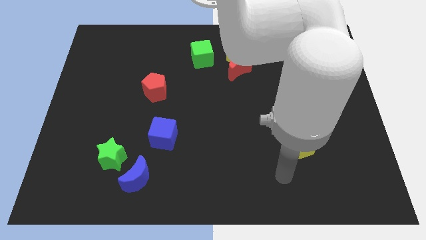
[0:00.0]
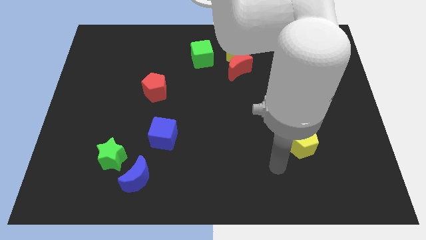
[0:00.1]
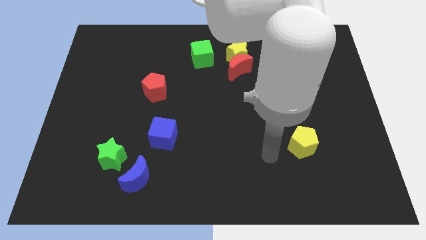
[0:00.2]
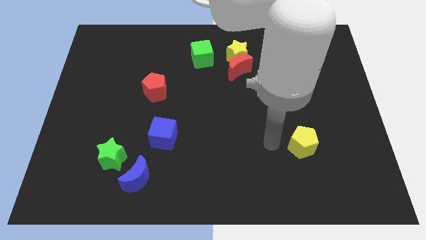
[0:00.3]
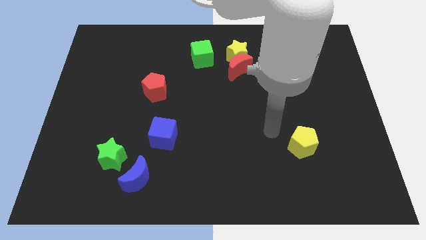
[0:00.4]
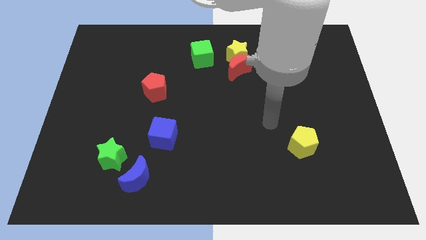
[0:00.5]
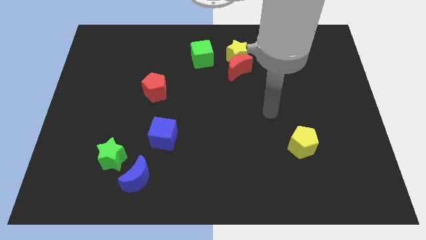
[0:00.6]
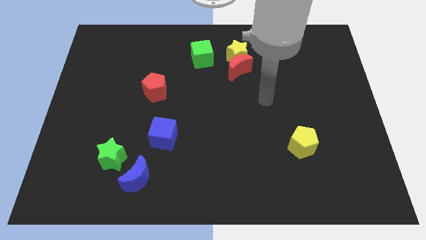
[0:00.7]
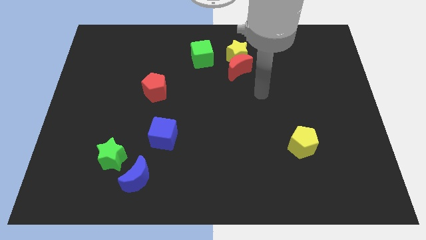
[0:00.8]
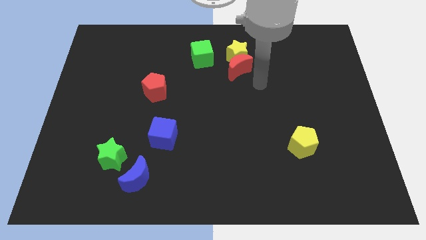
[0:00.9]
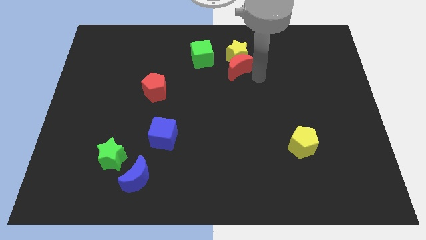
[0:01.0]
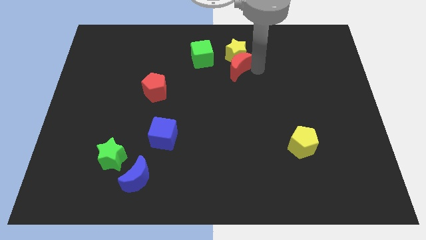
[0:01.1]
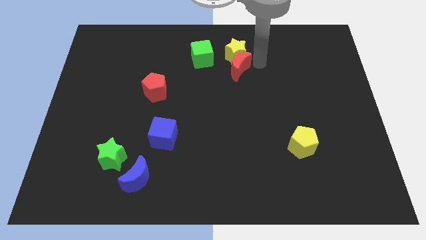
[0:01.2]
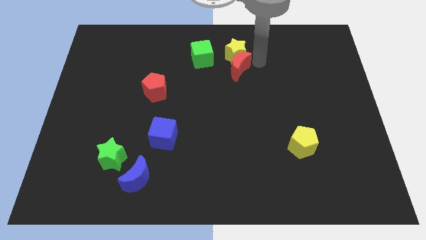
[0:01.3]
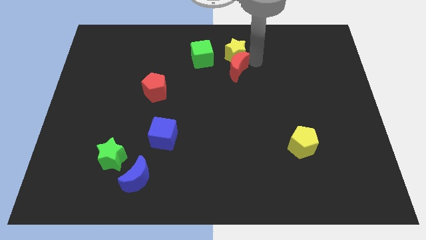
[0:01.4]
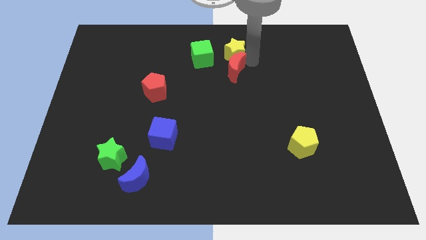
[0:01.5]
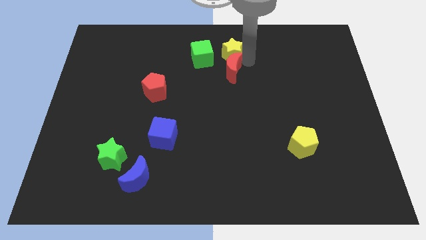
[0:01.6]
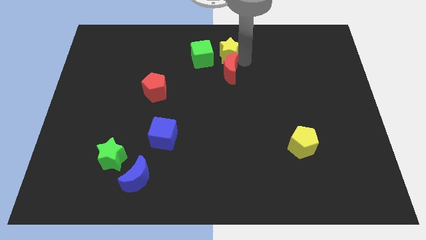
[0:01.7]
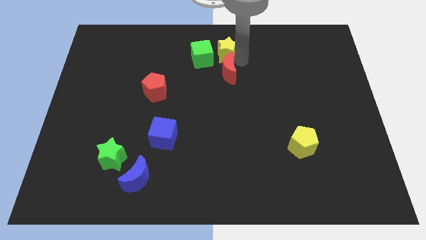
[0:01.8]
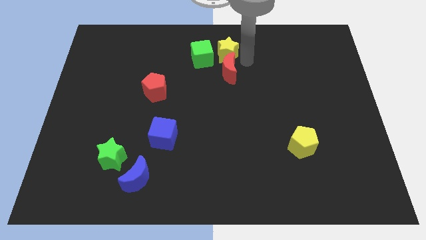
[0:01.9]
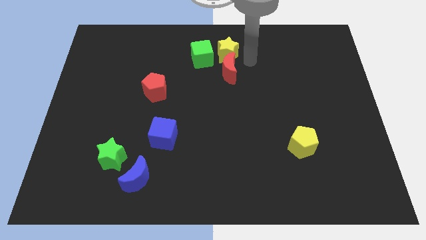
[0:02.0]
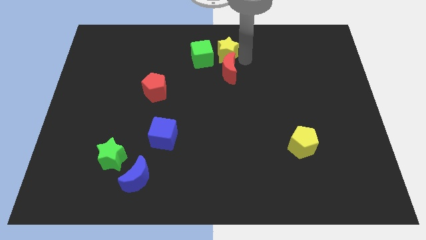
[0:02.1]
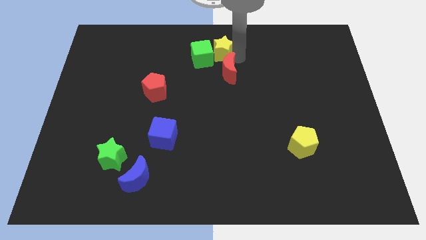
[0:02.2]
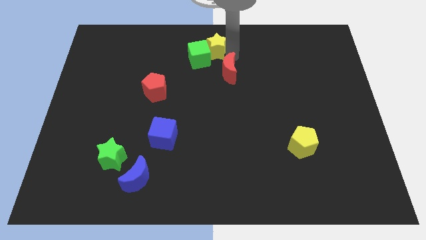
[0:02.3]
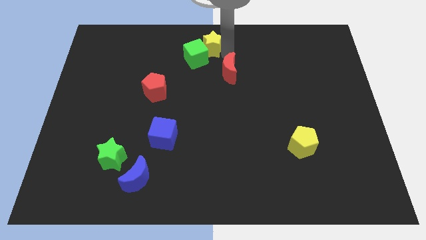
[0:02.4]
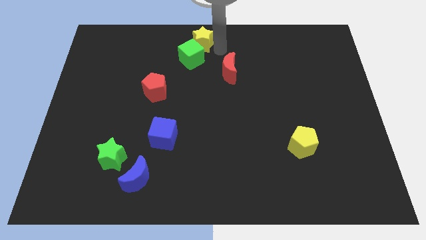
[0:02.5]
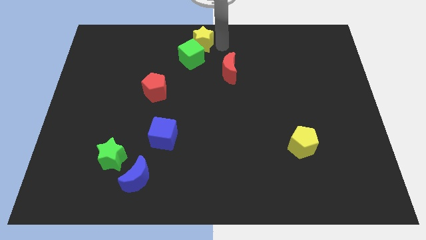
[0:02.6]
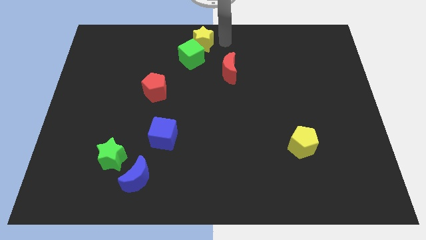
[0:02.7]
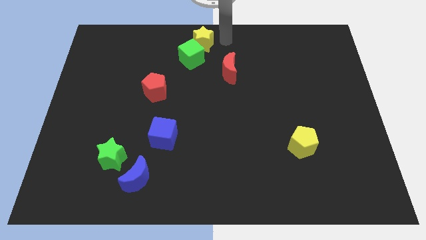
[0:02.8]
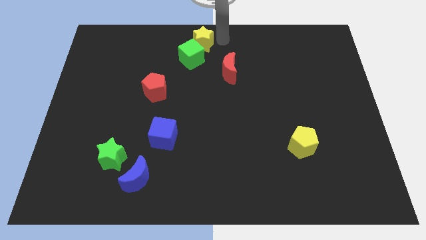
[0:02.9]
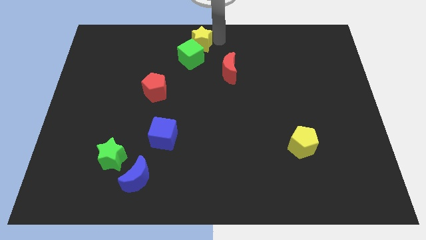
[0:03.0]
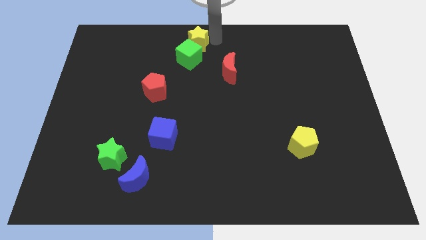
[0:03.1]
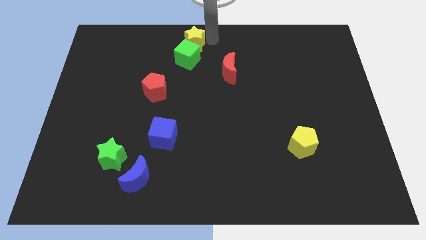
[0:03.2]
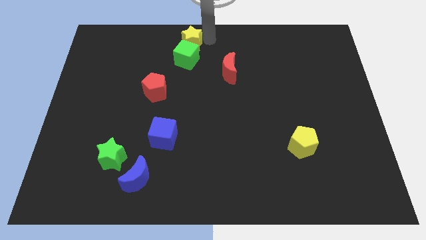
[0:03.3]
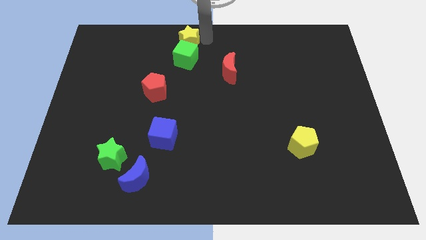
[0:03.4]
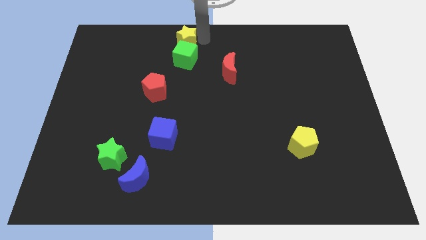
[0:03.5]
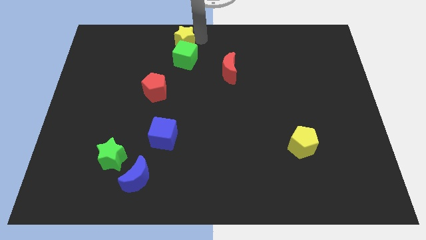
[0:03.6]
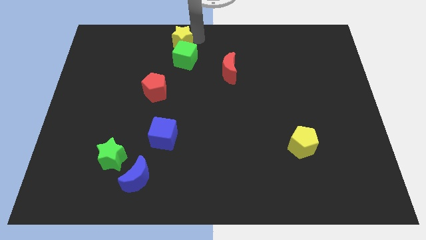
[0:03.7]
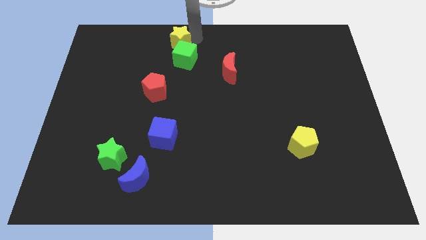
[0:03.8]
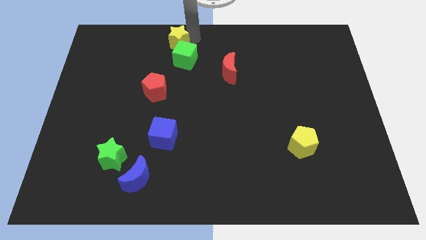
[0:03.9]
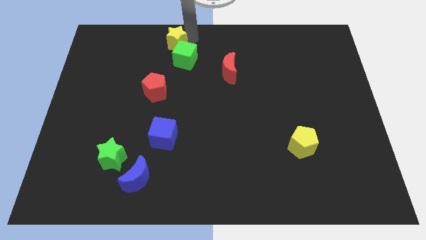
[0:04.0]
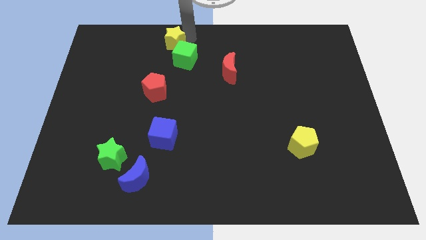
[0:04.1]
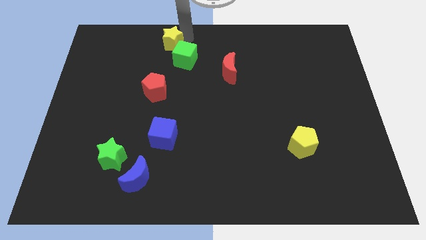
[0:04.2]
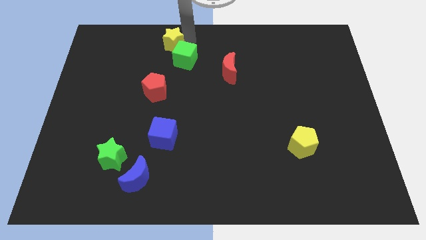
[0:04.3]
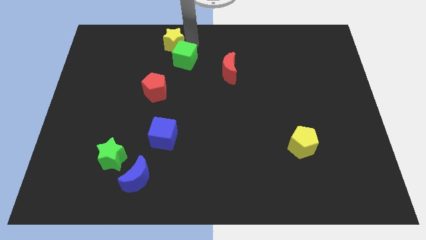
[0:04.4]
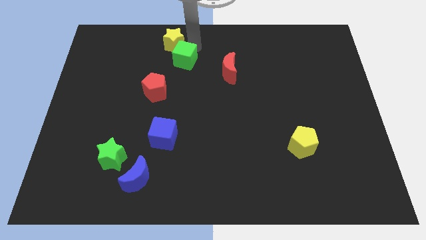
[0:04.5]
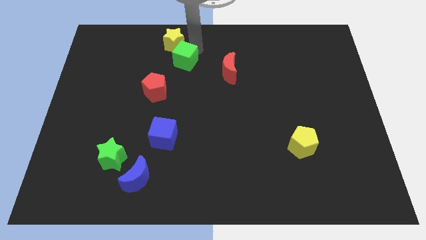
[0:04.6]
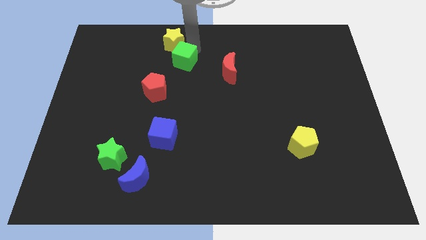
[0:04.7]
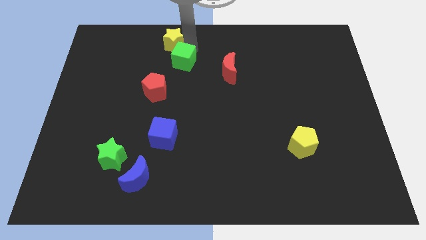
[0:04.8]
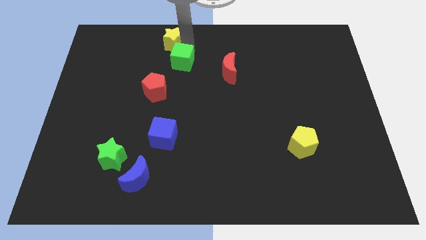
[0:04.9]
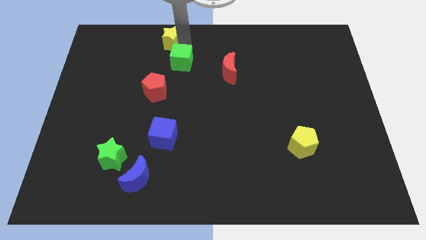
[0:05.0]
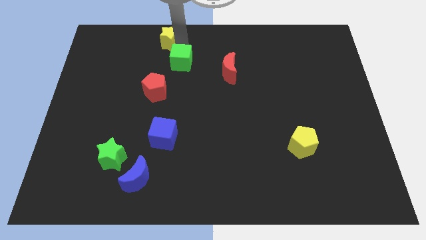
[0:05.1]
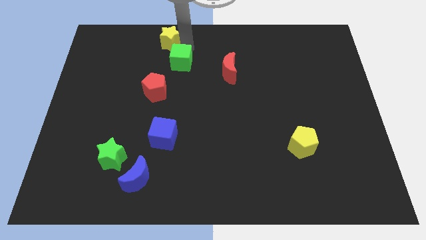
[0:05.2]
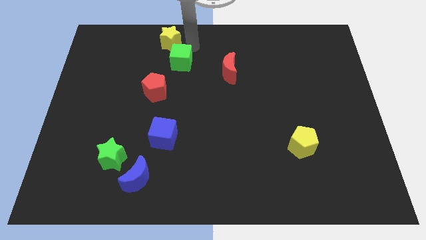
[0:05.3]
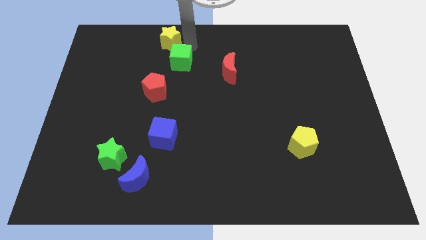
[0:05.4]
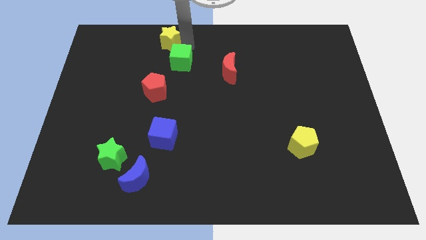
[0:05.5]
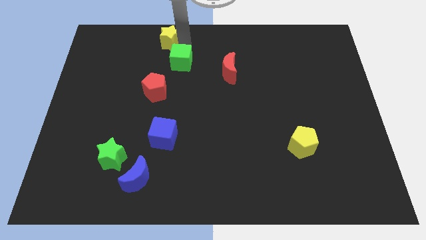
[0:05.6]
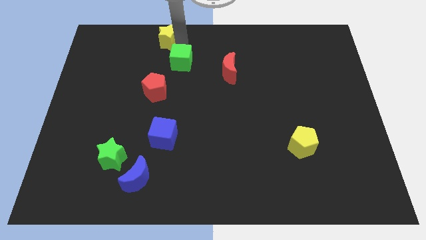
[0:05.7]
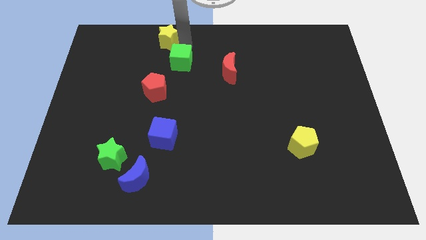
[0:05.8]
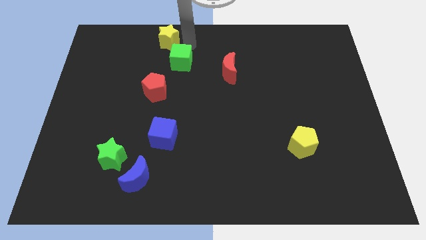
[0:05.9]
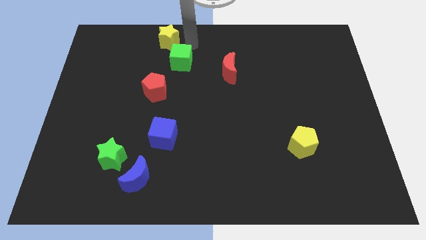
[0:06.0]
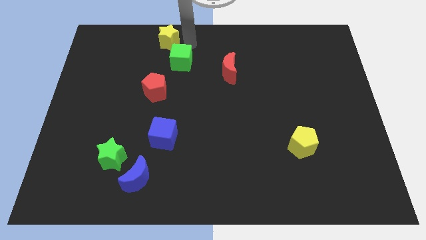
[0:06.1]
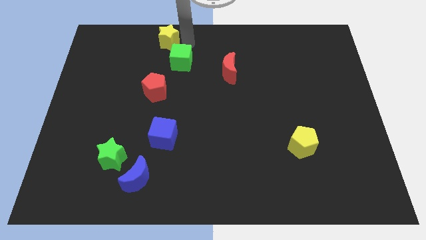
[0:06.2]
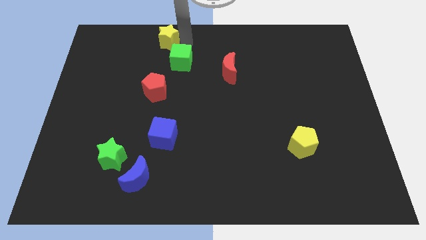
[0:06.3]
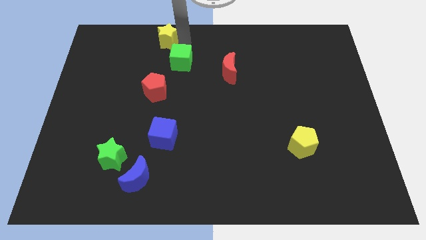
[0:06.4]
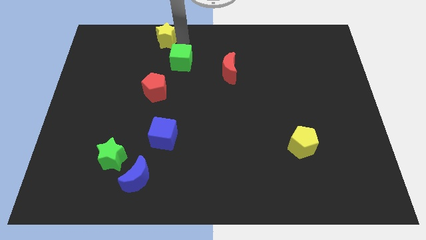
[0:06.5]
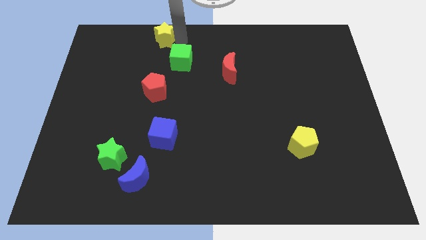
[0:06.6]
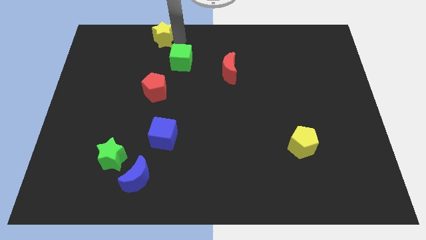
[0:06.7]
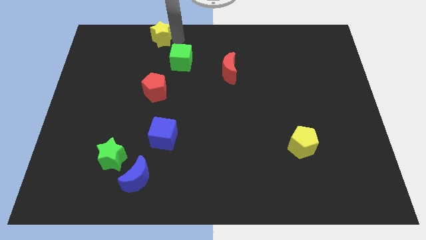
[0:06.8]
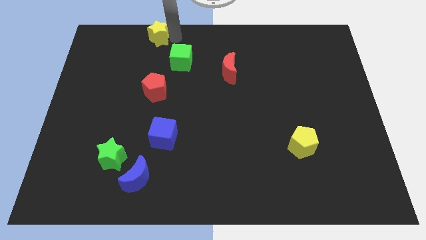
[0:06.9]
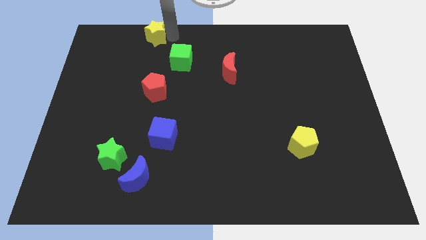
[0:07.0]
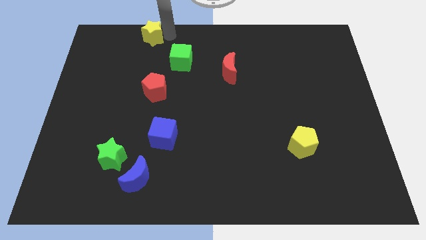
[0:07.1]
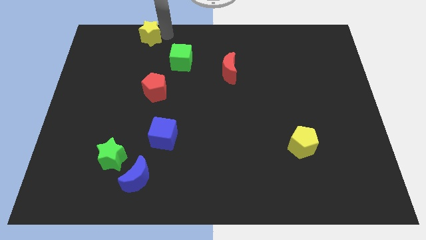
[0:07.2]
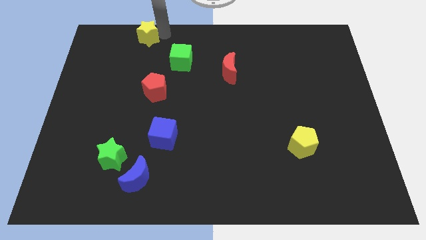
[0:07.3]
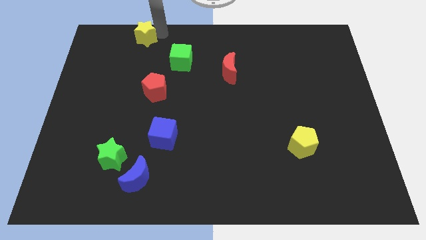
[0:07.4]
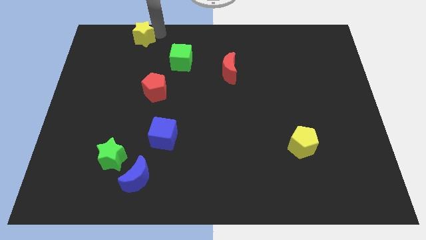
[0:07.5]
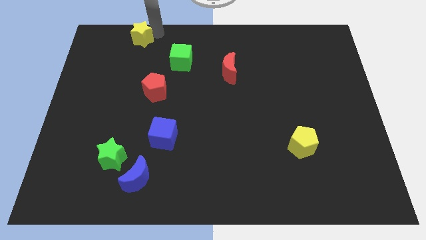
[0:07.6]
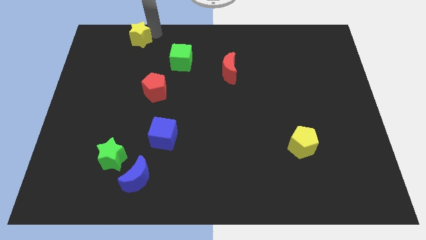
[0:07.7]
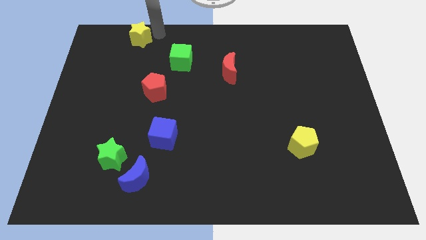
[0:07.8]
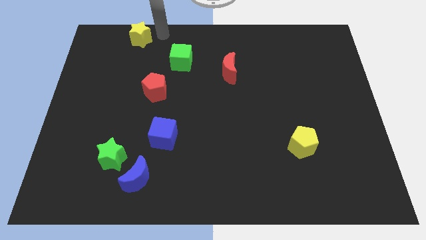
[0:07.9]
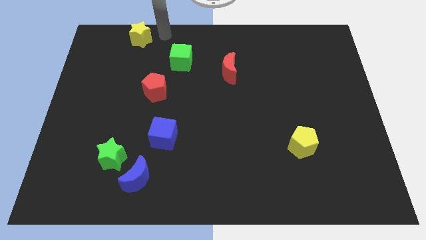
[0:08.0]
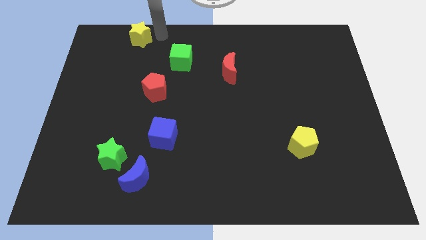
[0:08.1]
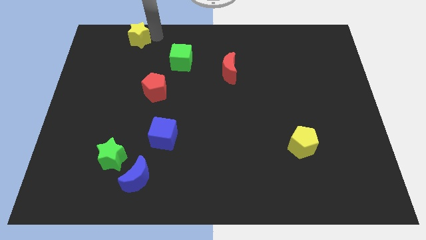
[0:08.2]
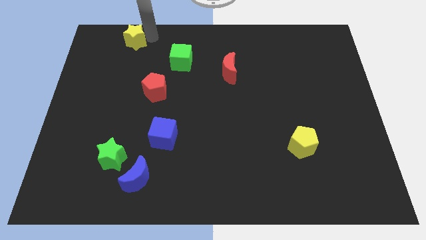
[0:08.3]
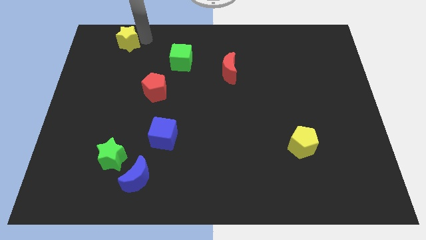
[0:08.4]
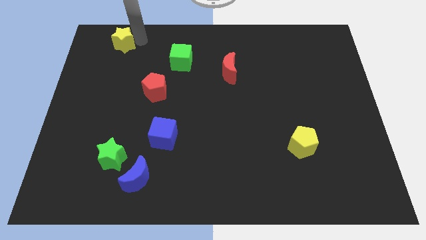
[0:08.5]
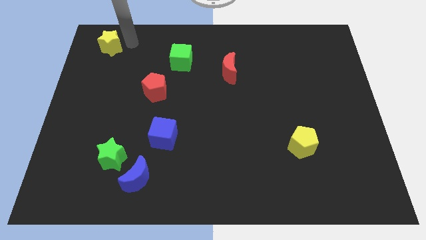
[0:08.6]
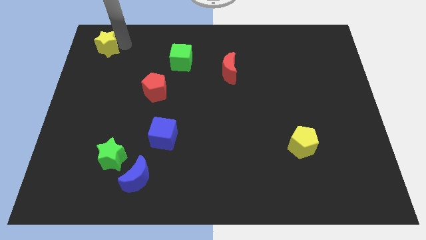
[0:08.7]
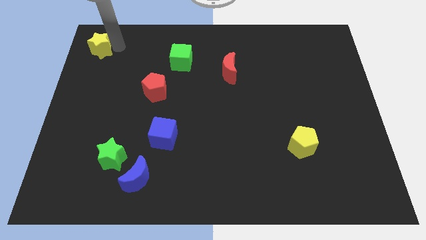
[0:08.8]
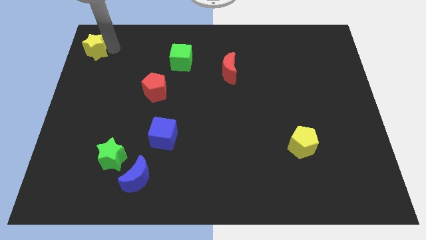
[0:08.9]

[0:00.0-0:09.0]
slide the yellow star to the top left corner
